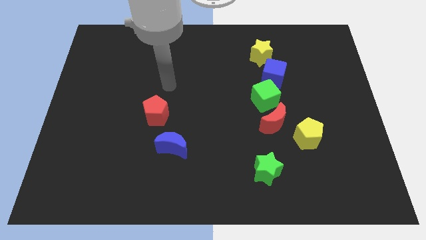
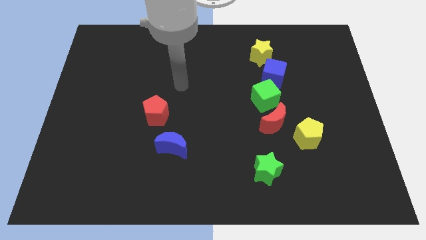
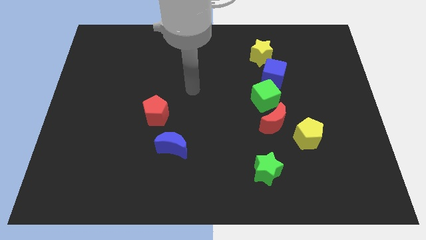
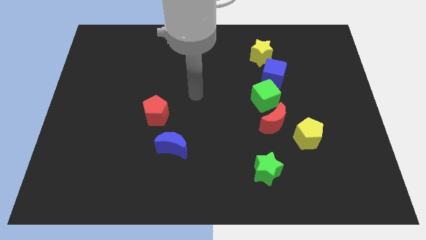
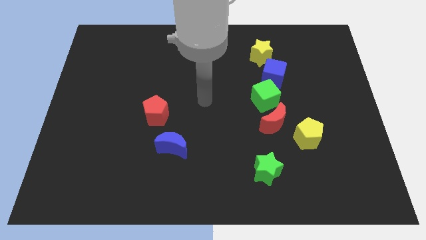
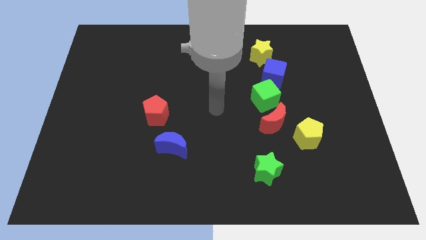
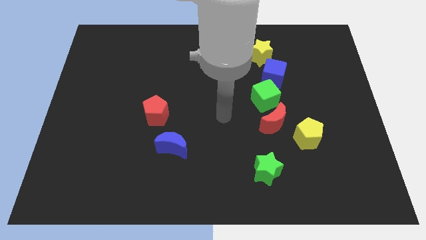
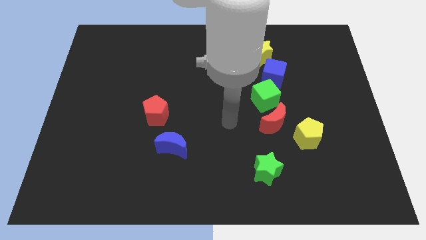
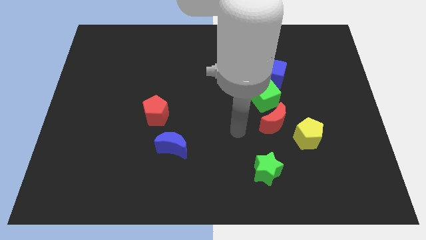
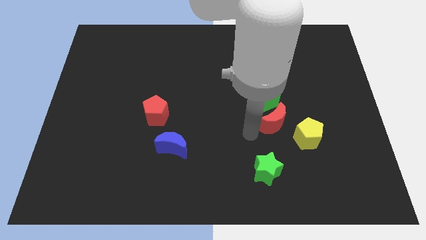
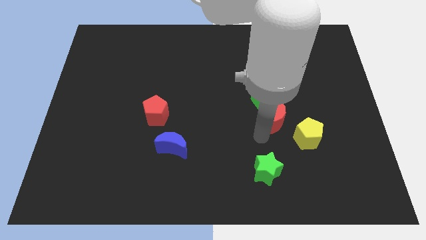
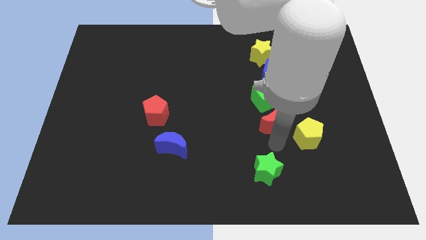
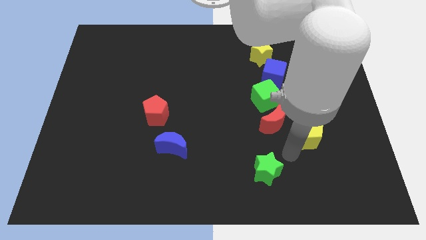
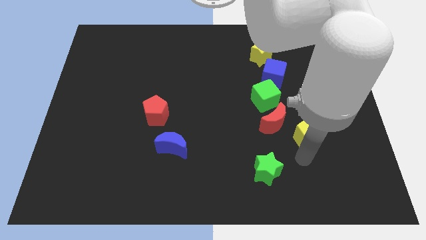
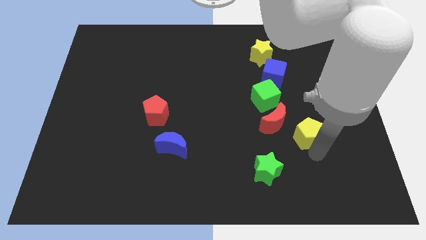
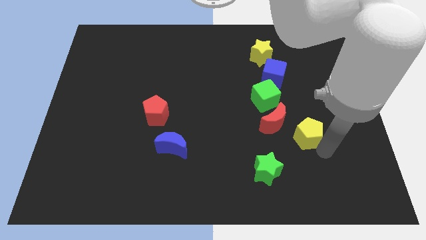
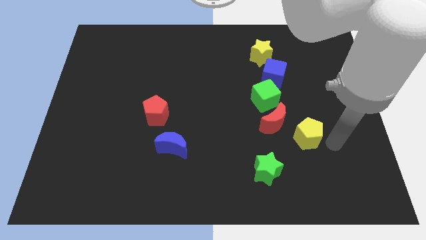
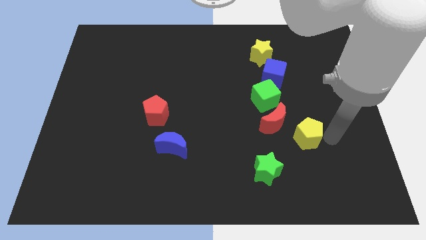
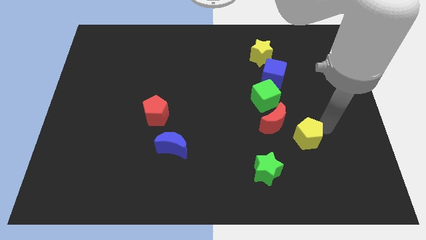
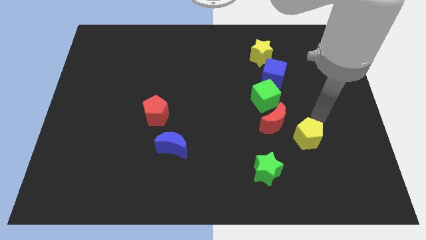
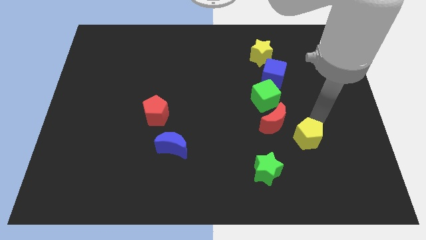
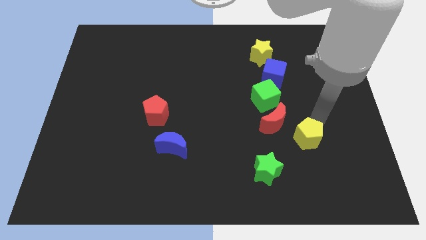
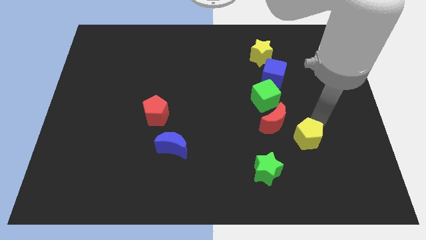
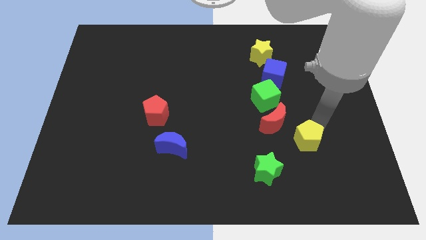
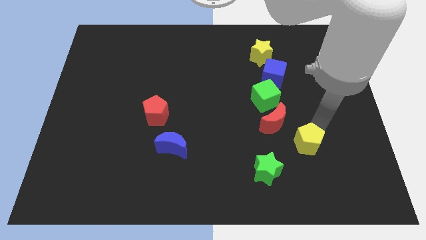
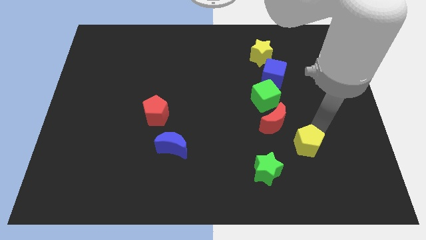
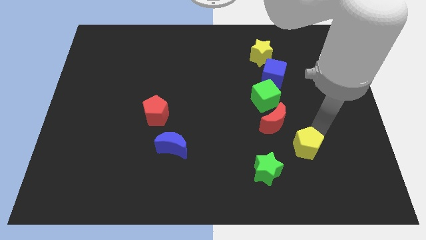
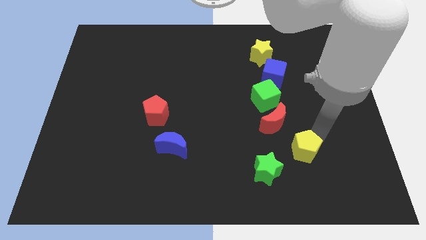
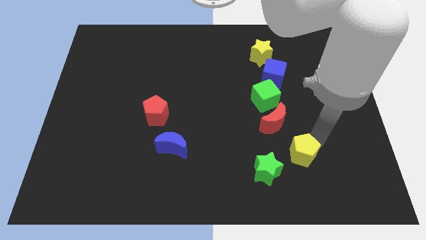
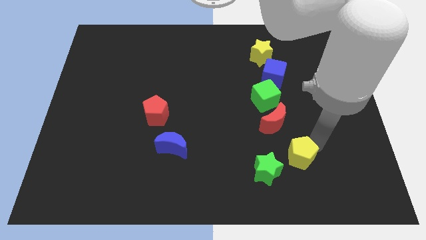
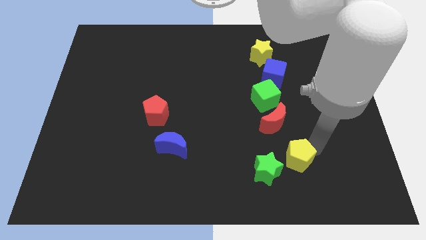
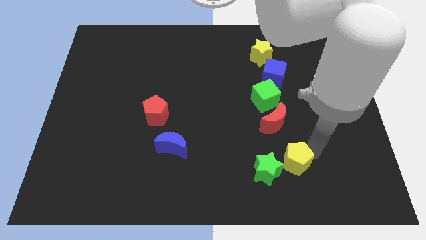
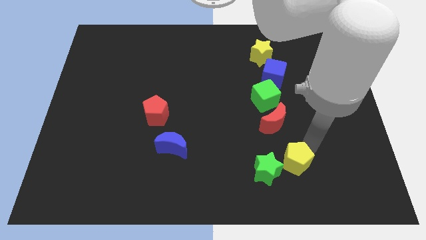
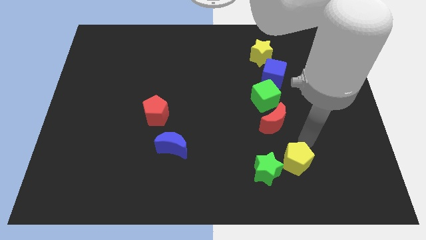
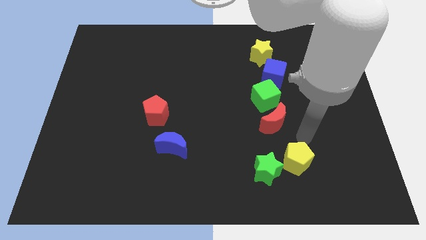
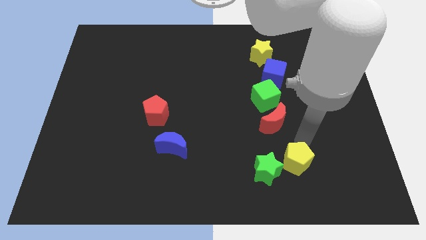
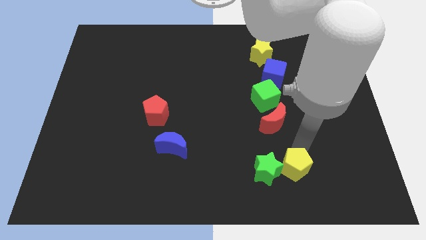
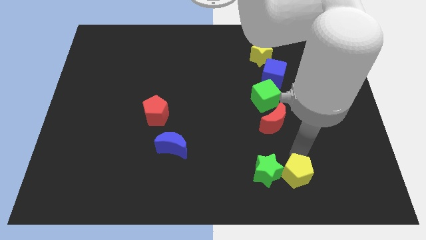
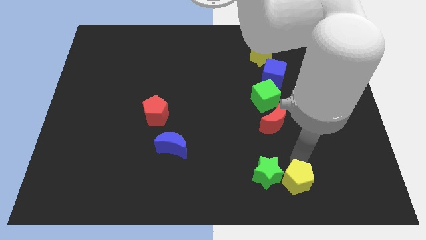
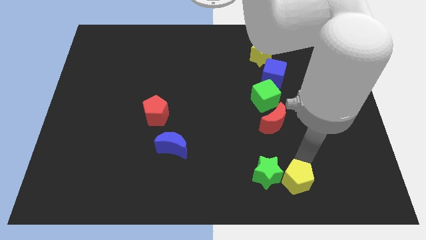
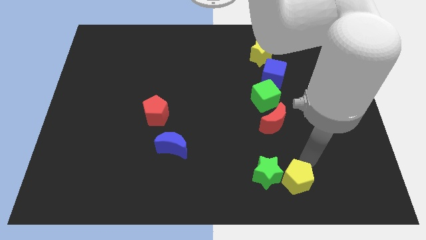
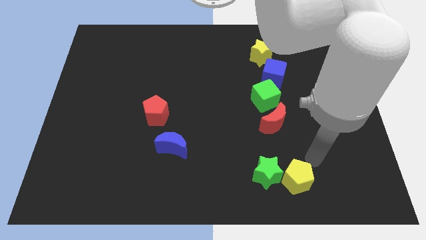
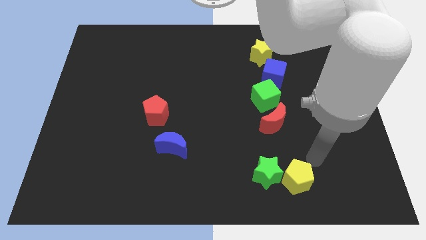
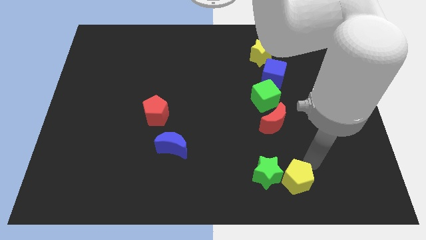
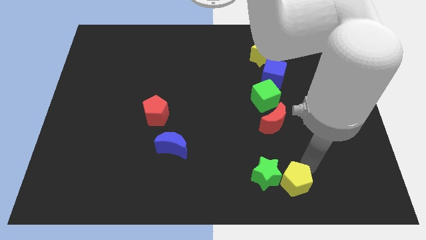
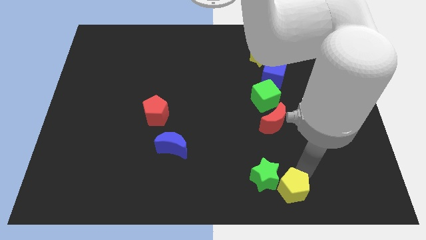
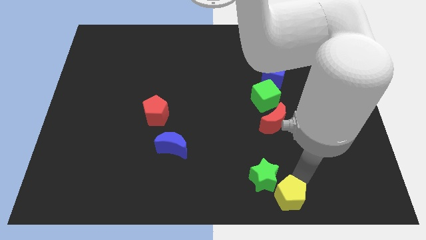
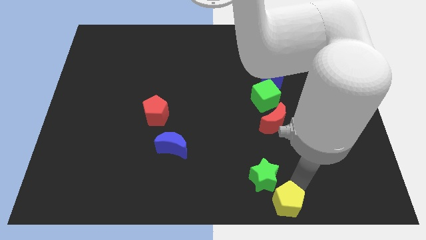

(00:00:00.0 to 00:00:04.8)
put the yellow pentagon to the bottom

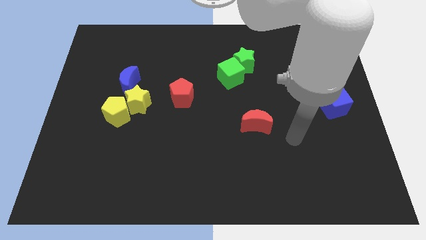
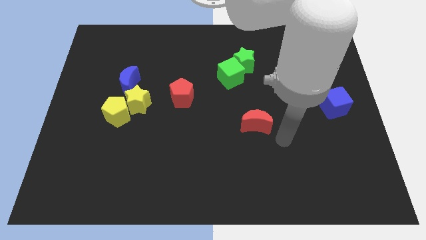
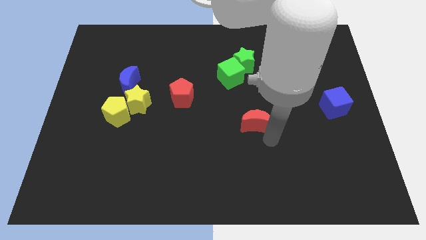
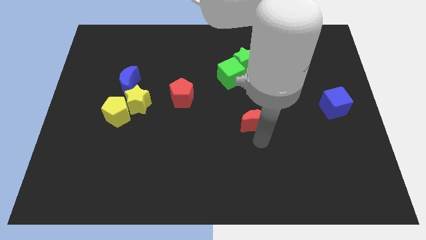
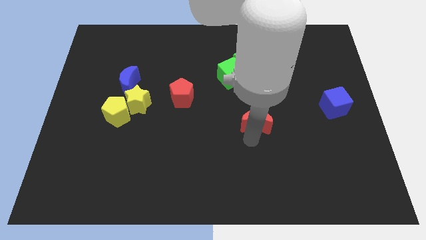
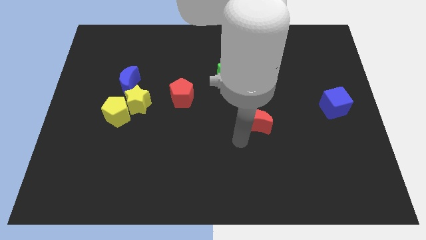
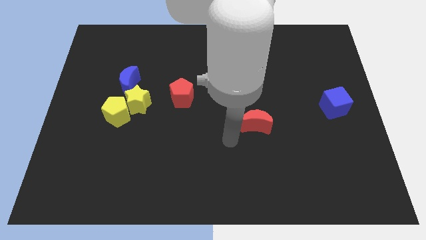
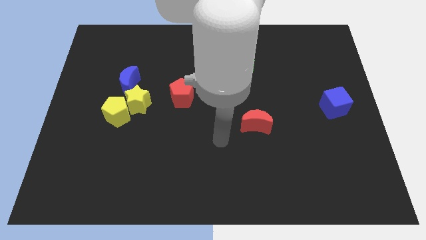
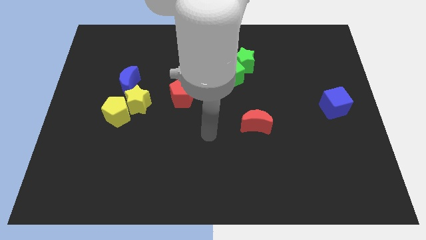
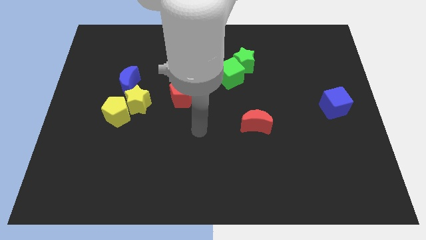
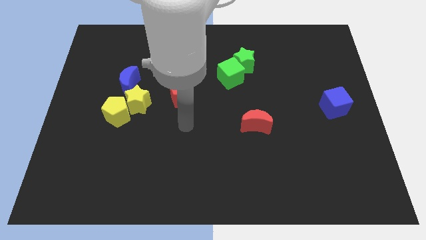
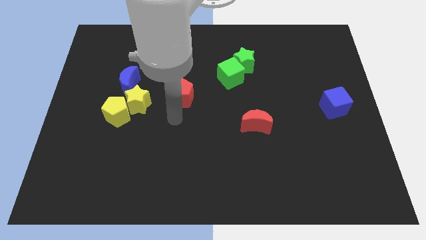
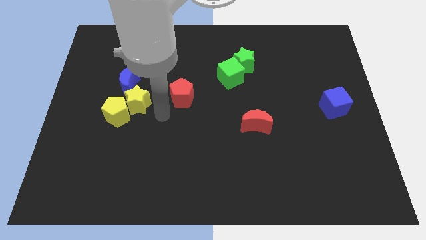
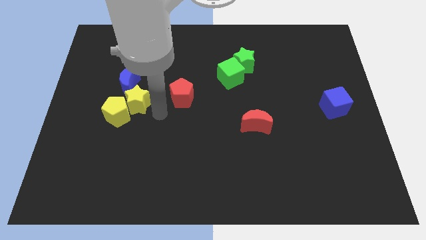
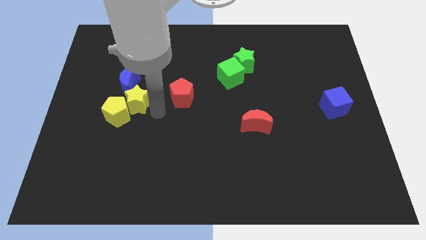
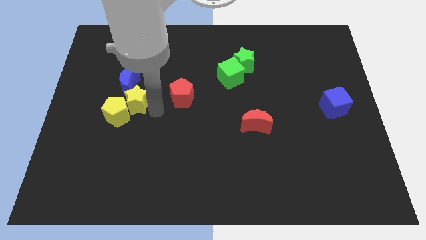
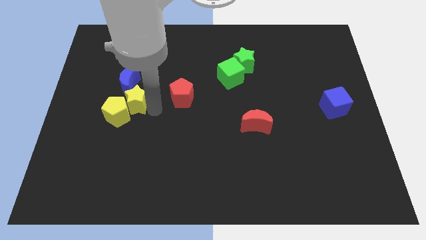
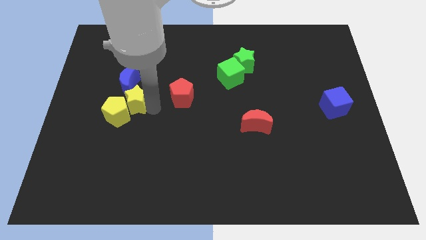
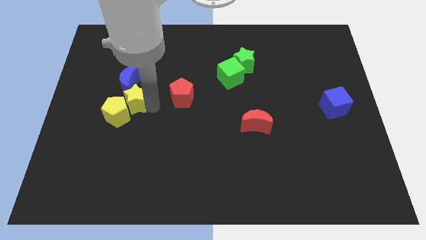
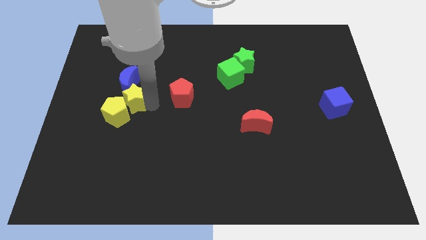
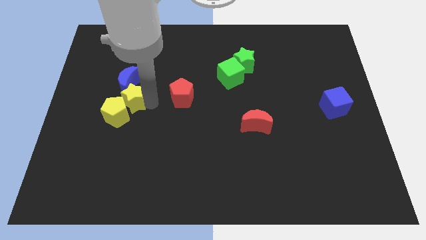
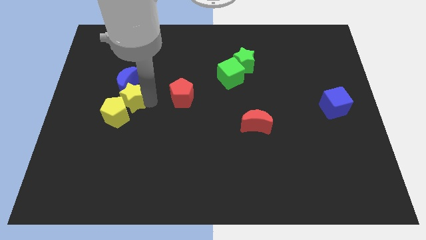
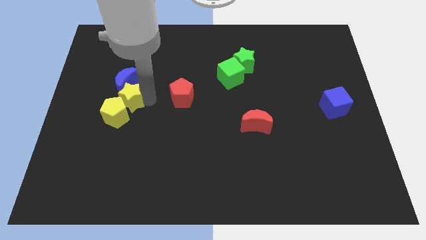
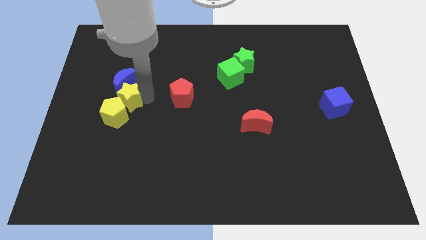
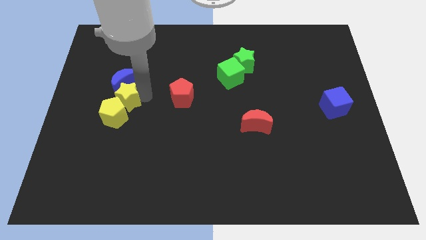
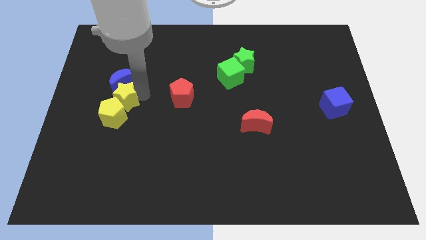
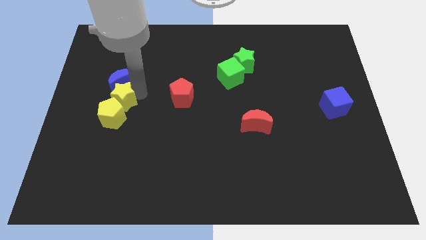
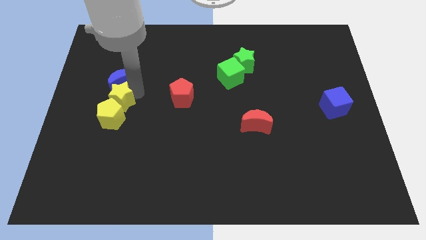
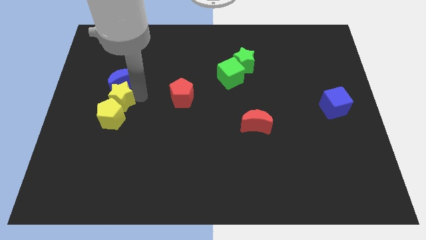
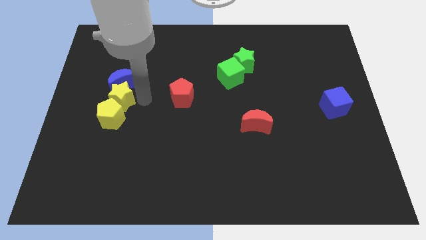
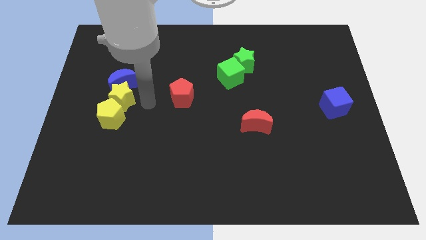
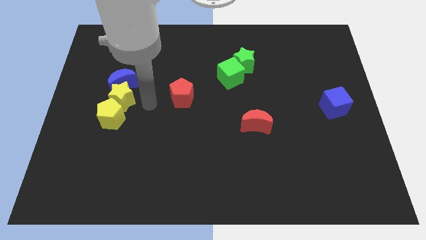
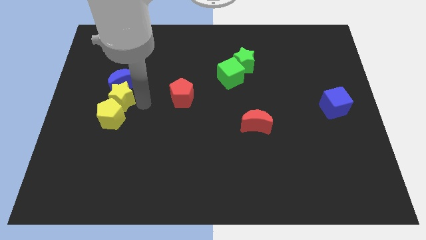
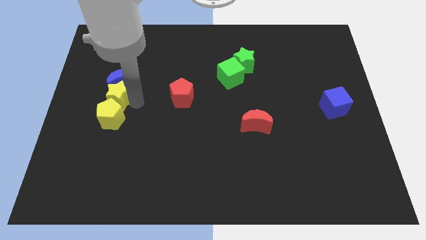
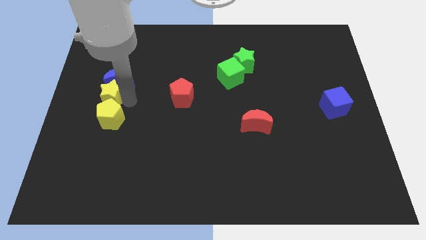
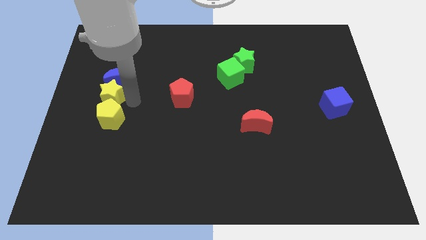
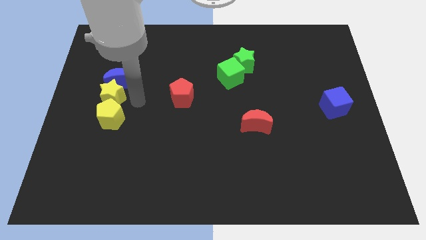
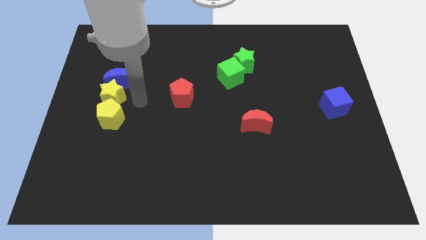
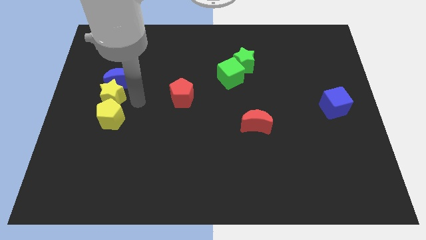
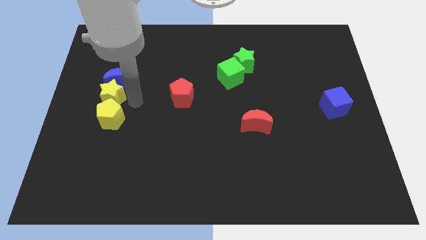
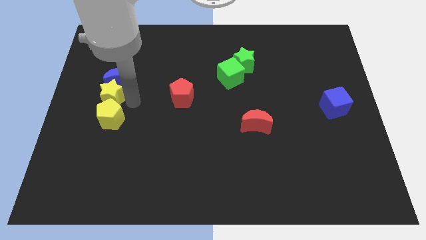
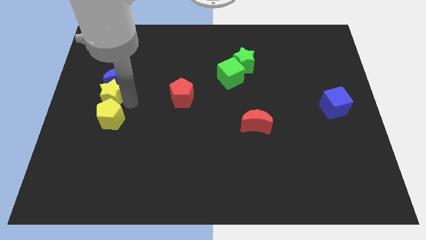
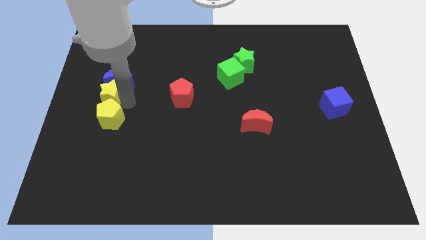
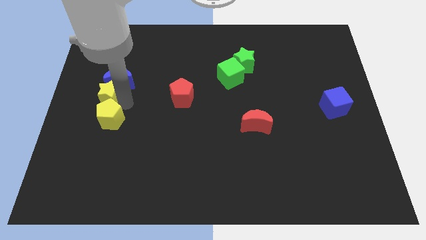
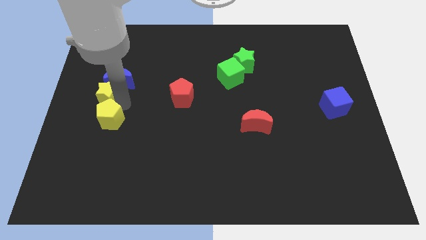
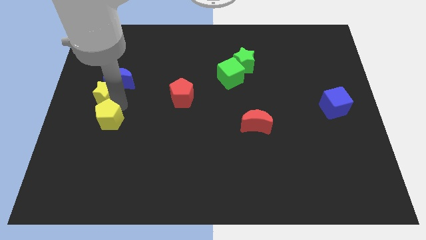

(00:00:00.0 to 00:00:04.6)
move the yellow star to the center left
